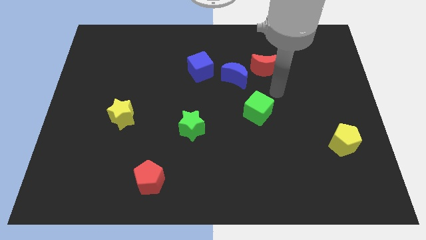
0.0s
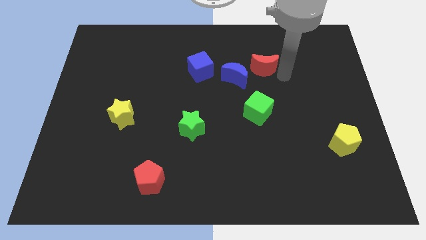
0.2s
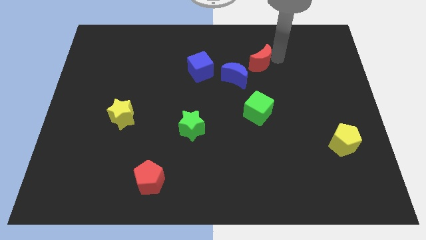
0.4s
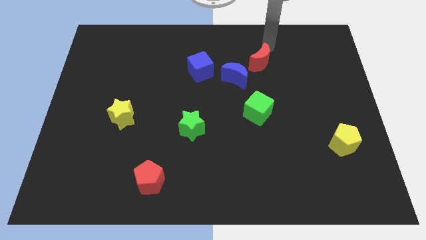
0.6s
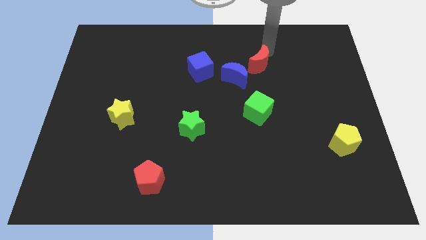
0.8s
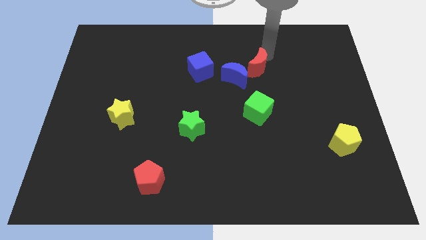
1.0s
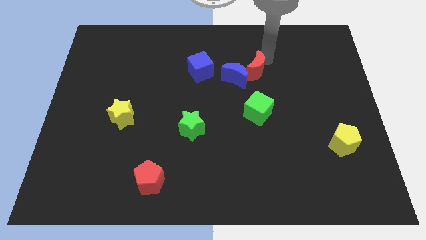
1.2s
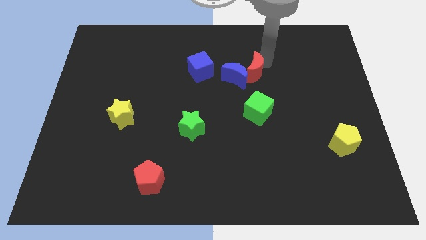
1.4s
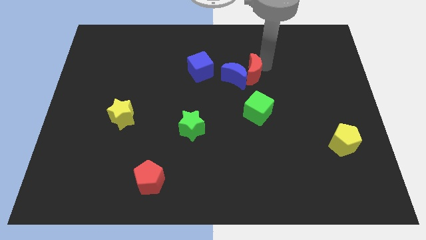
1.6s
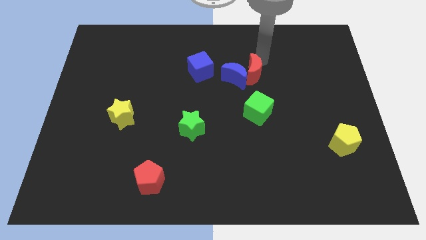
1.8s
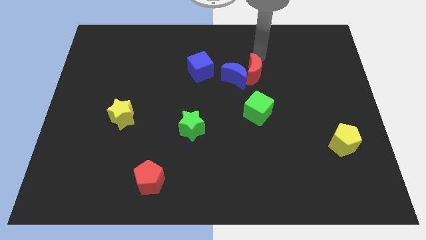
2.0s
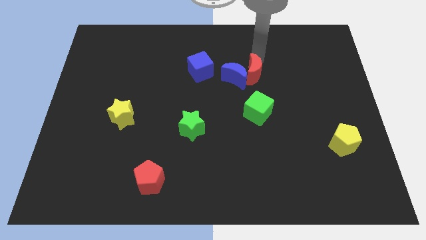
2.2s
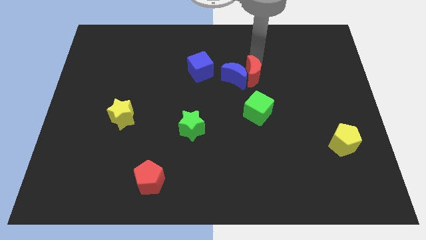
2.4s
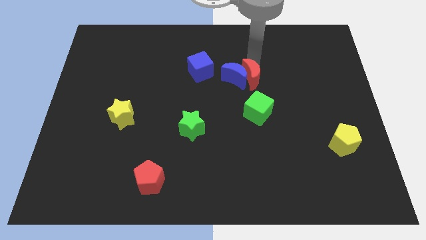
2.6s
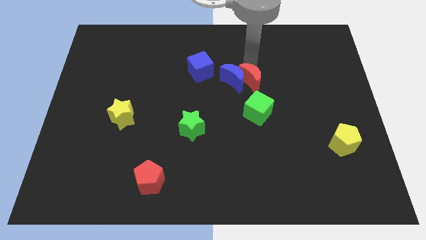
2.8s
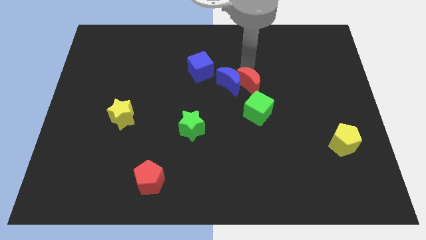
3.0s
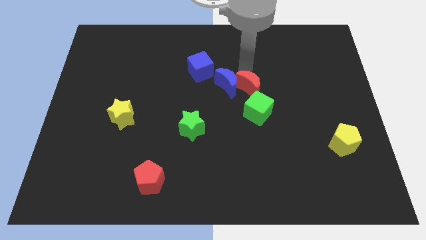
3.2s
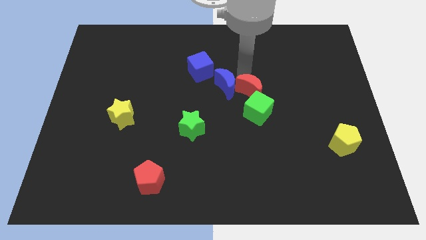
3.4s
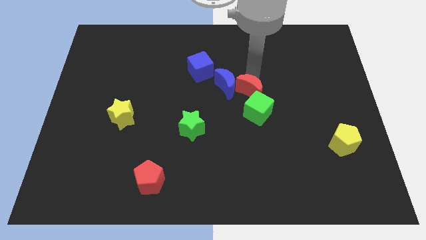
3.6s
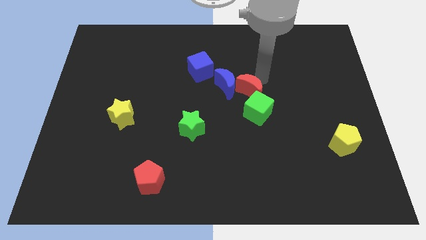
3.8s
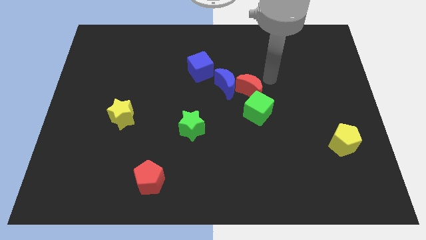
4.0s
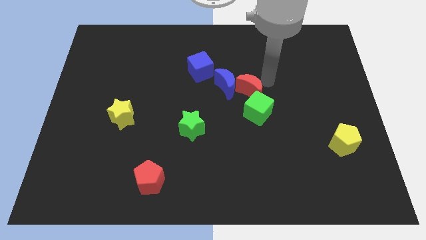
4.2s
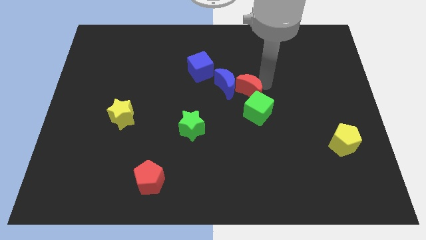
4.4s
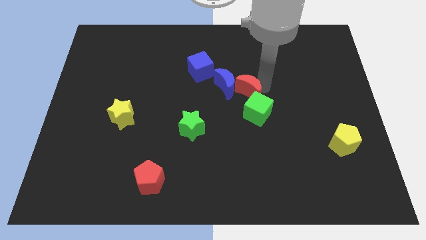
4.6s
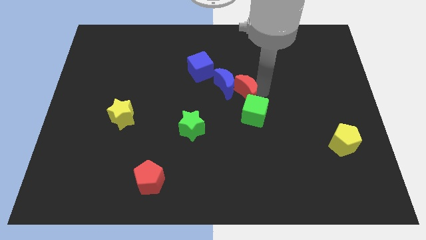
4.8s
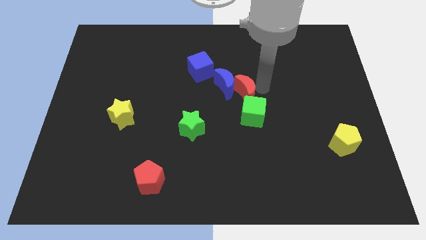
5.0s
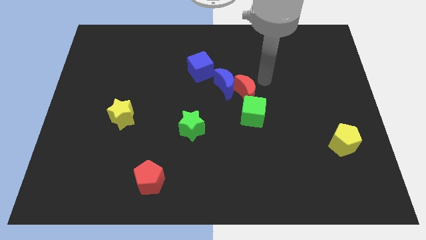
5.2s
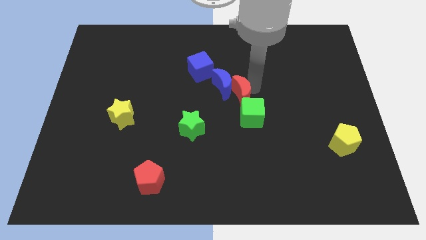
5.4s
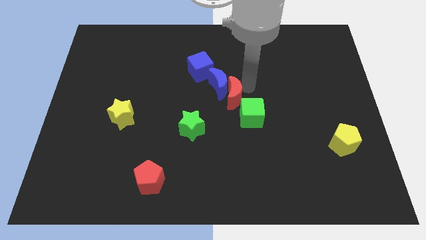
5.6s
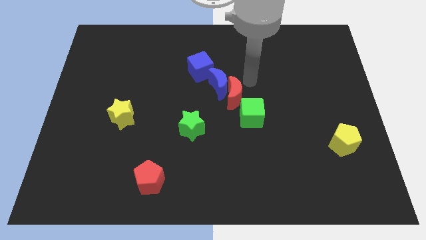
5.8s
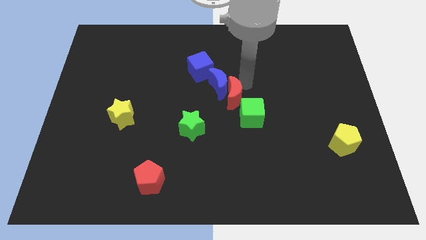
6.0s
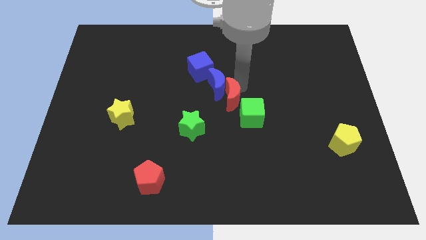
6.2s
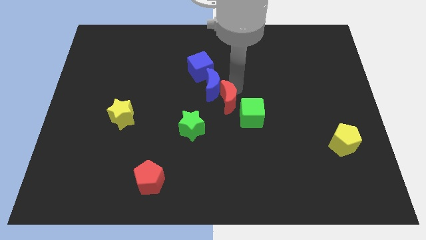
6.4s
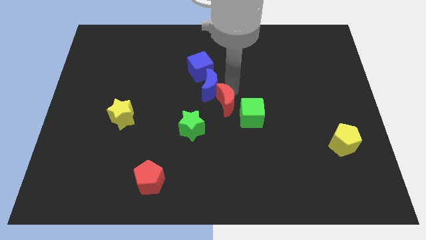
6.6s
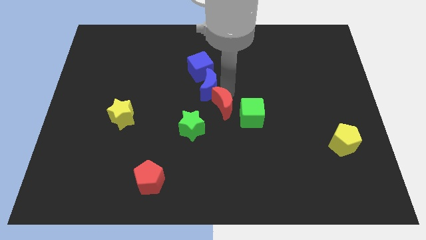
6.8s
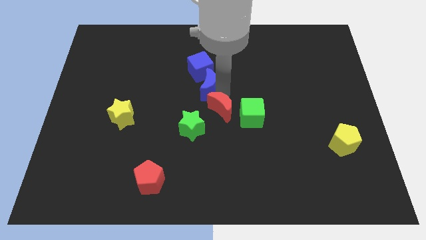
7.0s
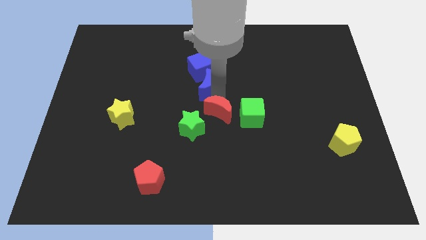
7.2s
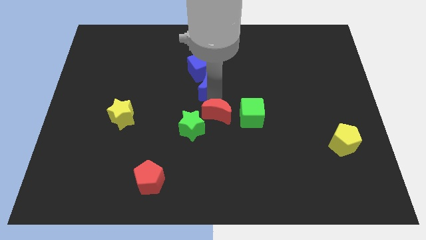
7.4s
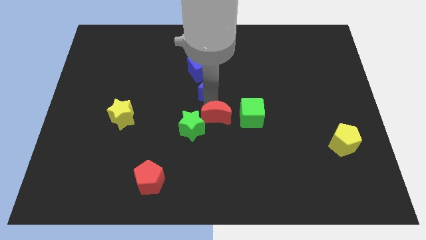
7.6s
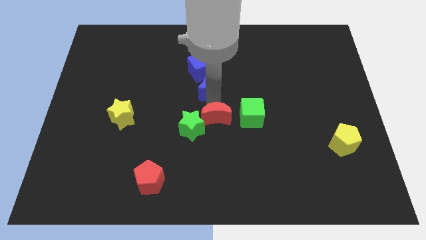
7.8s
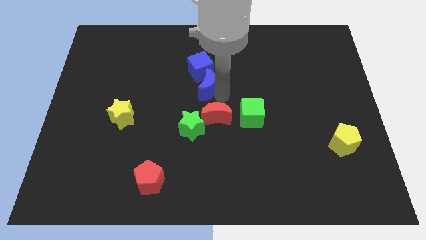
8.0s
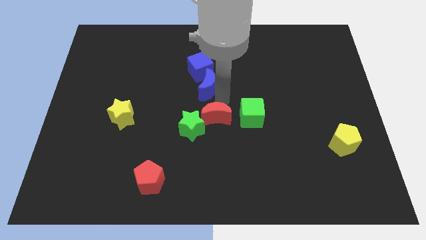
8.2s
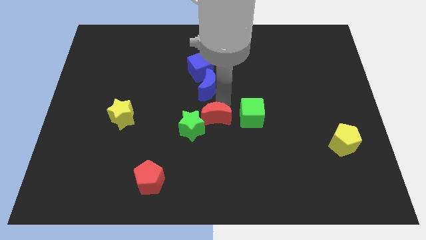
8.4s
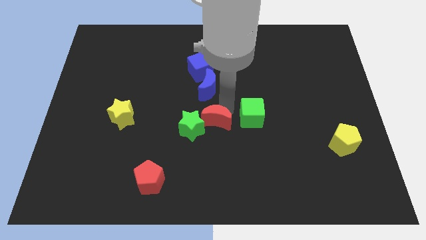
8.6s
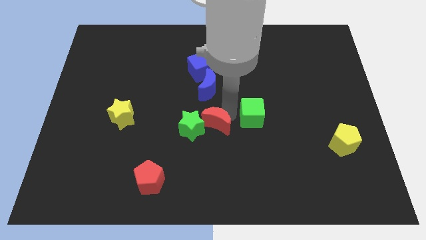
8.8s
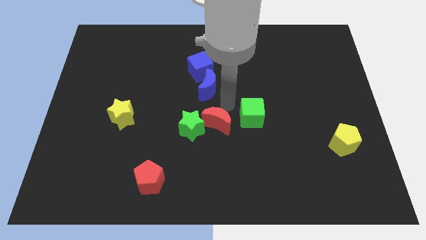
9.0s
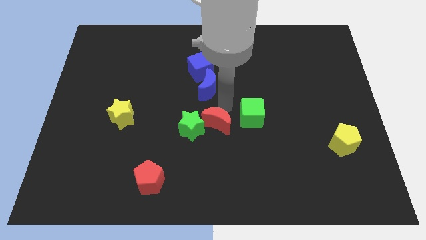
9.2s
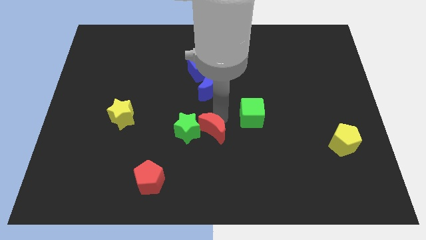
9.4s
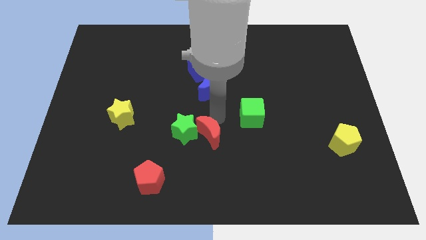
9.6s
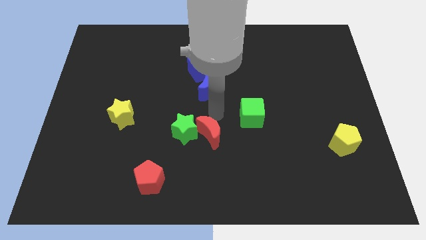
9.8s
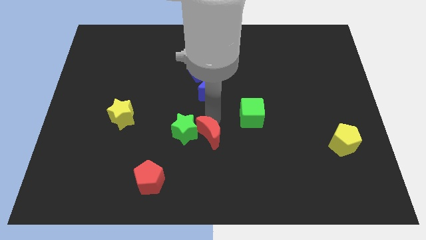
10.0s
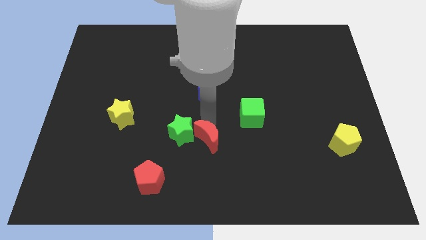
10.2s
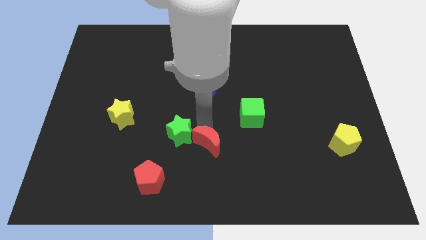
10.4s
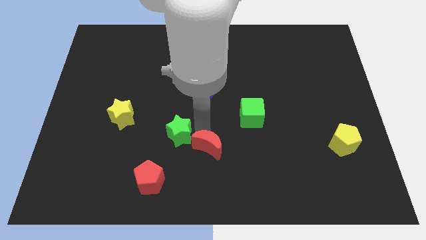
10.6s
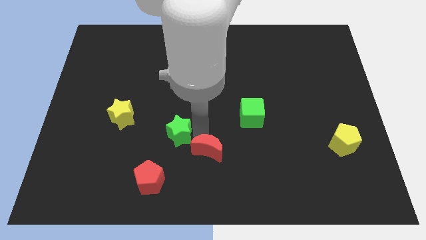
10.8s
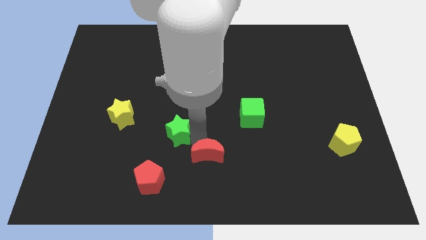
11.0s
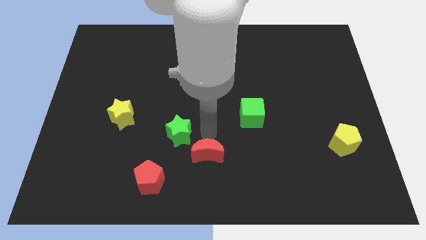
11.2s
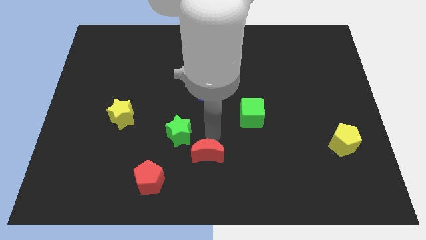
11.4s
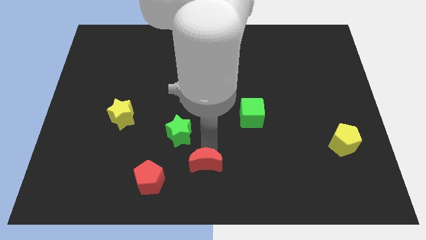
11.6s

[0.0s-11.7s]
push the red moon just right of the red pentagon

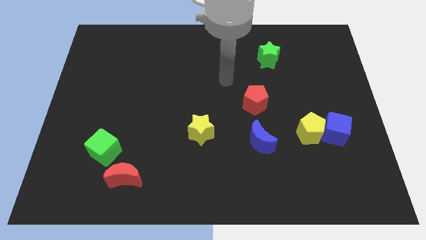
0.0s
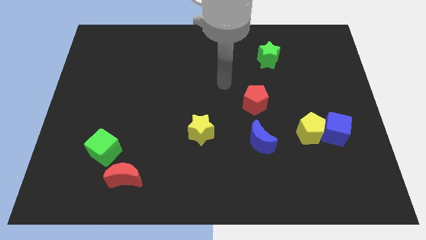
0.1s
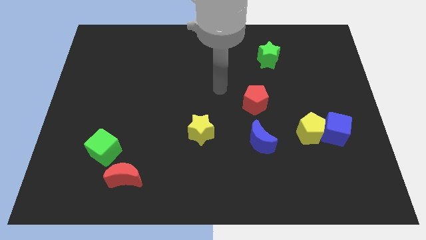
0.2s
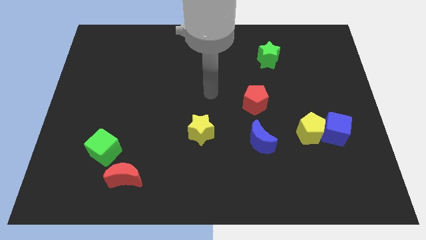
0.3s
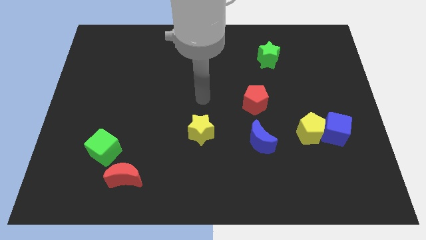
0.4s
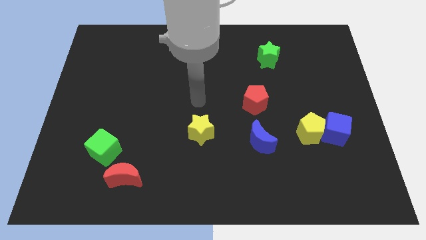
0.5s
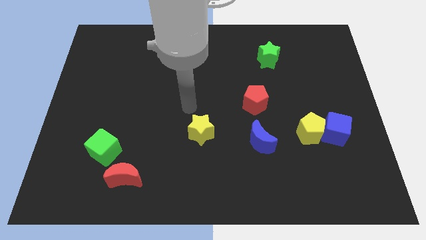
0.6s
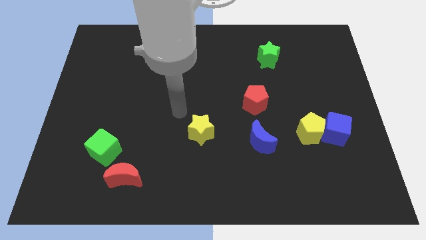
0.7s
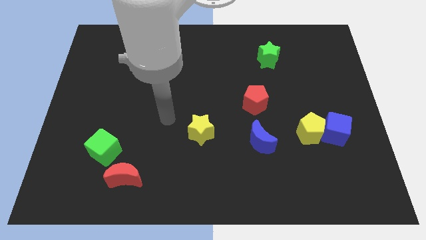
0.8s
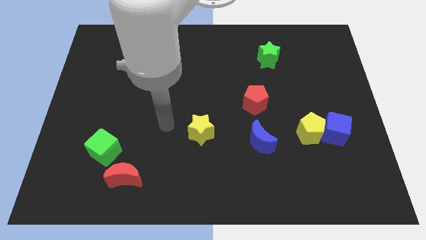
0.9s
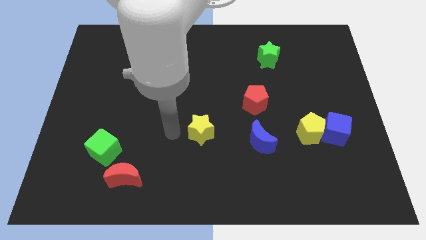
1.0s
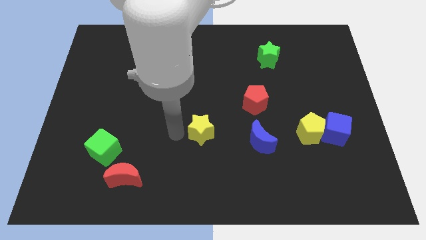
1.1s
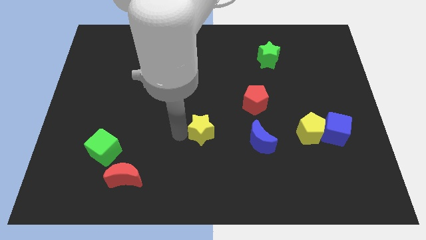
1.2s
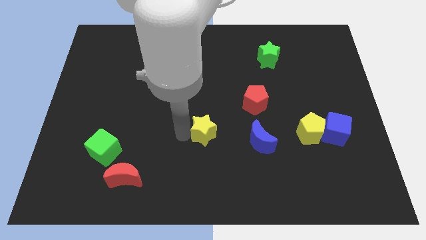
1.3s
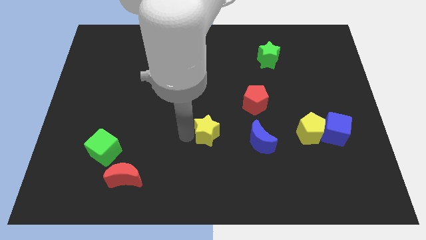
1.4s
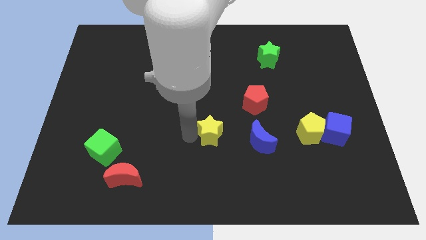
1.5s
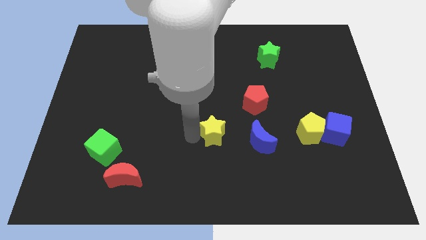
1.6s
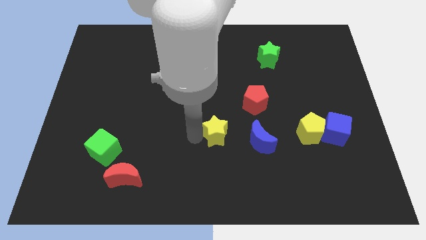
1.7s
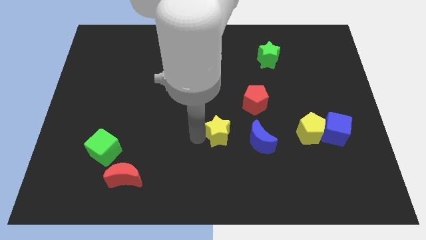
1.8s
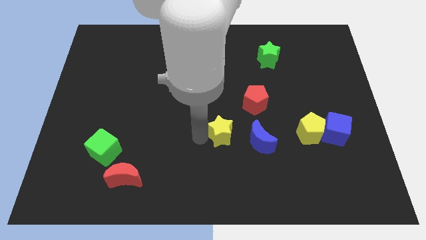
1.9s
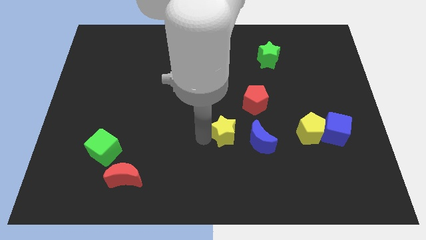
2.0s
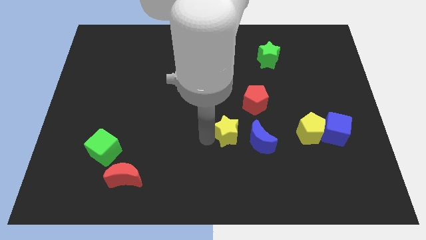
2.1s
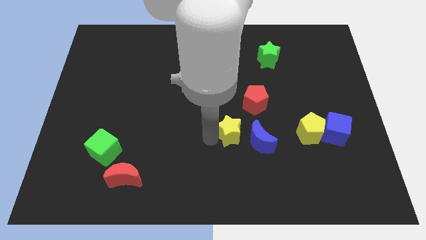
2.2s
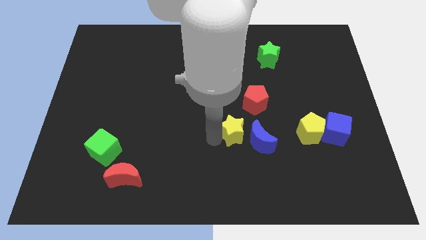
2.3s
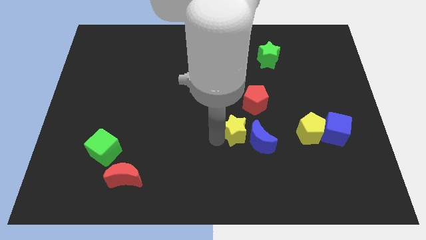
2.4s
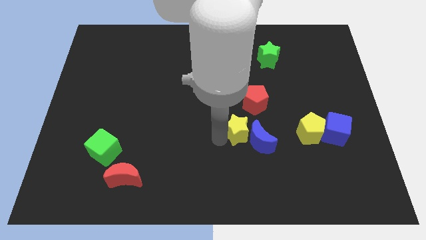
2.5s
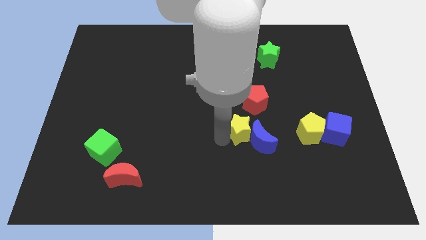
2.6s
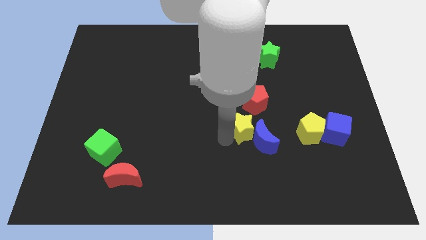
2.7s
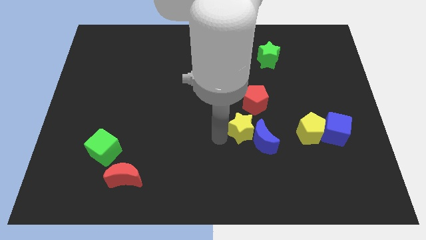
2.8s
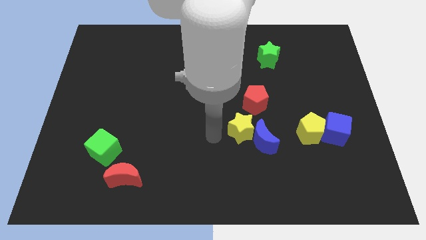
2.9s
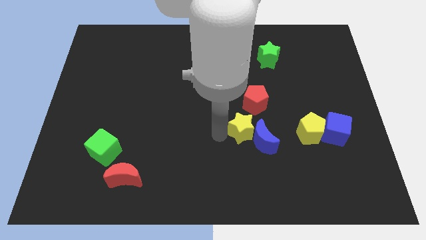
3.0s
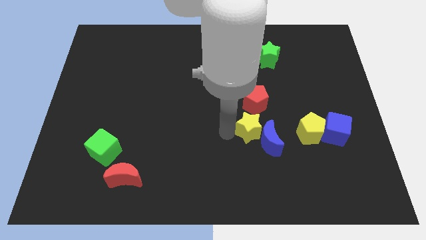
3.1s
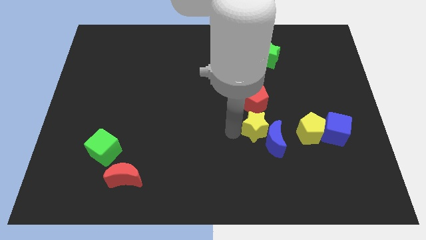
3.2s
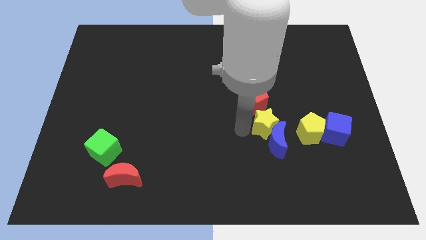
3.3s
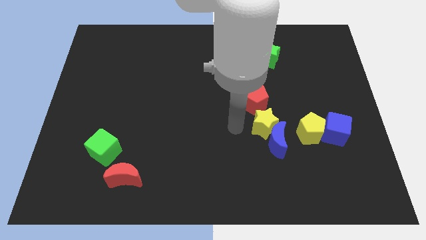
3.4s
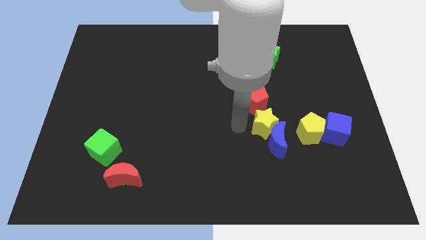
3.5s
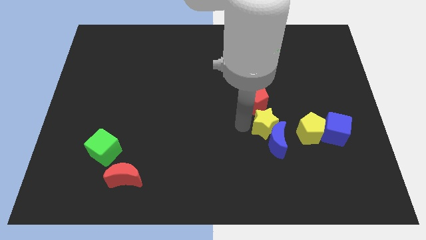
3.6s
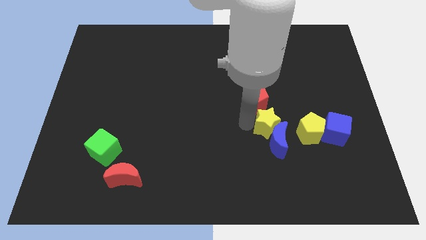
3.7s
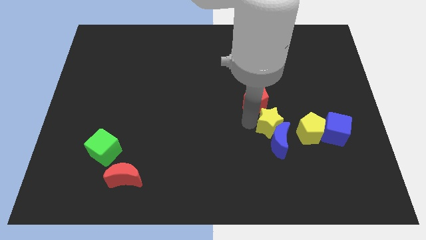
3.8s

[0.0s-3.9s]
move the yellow star to the top right of the blue moon
